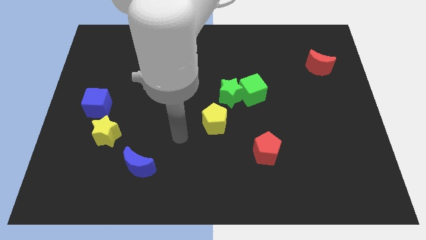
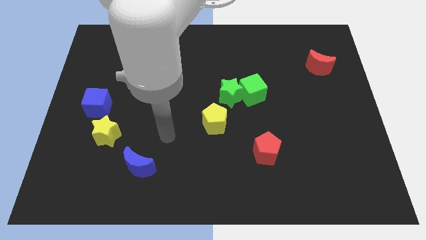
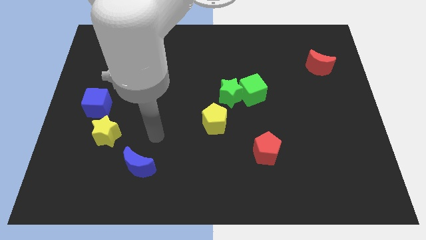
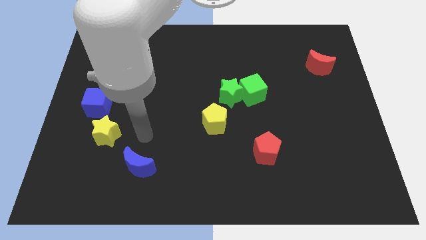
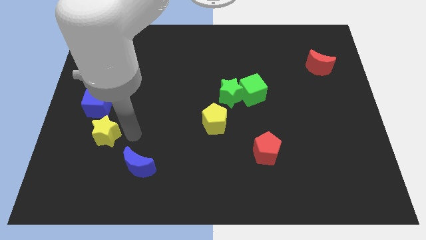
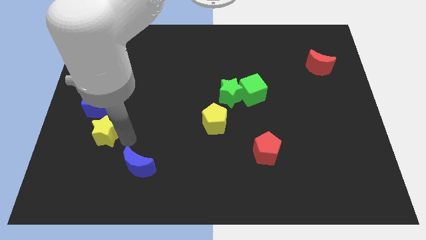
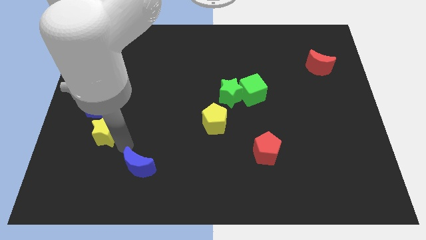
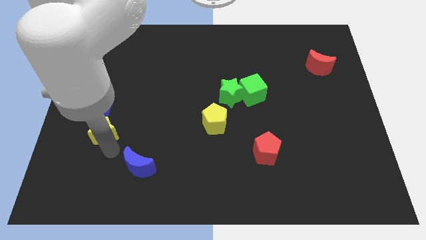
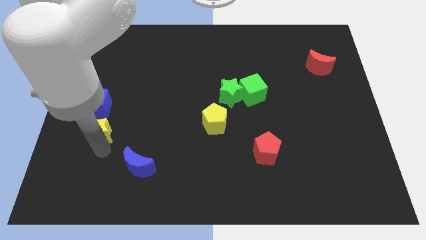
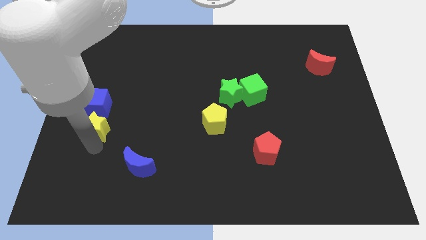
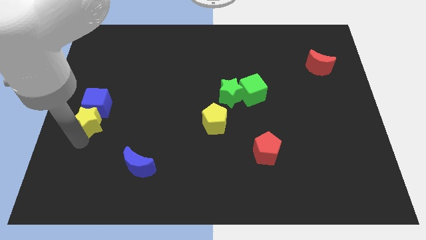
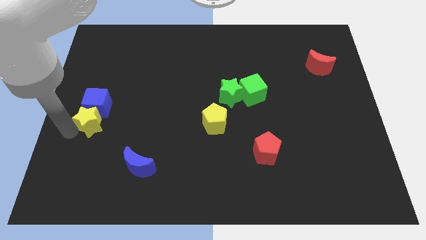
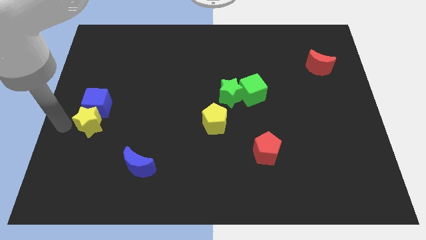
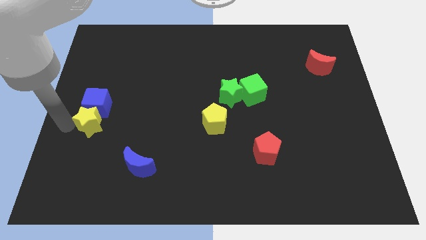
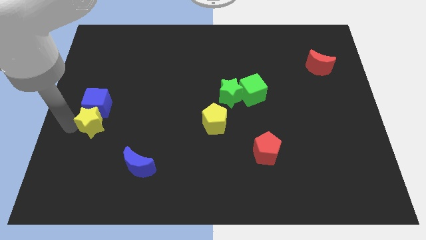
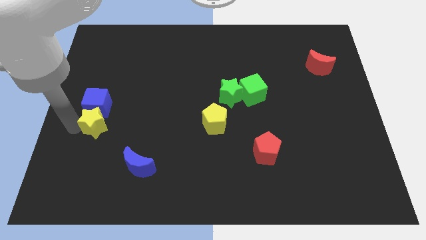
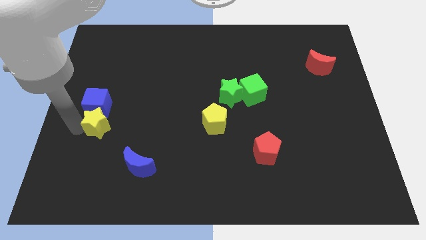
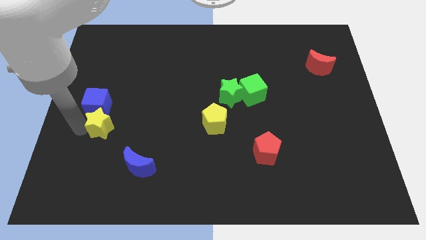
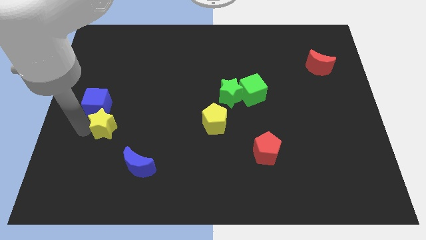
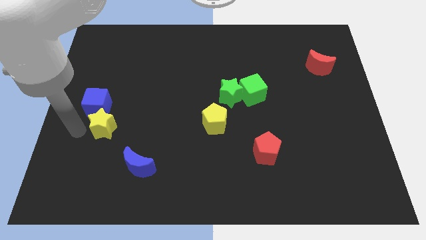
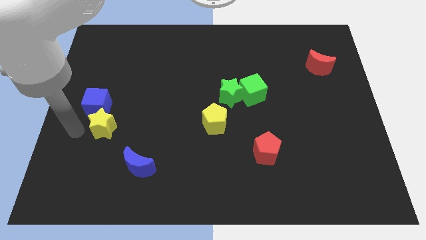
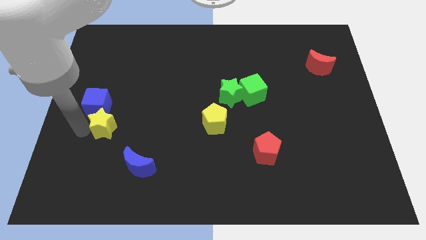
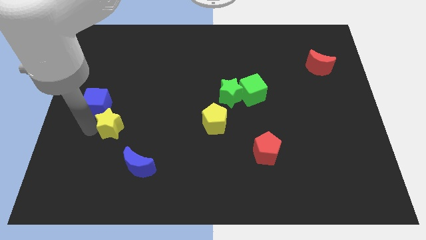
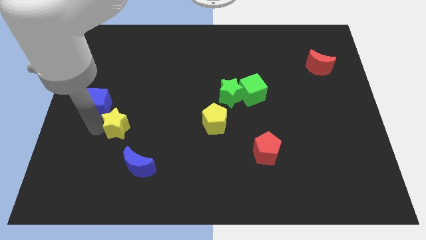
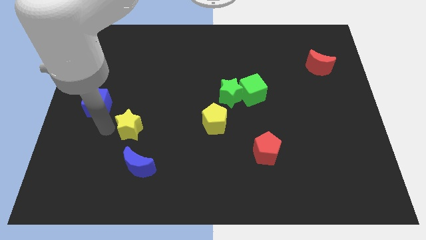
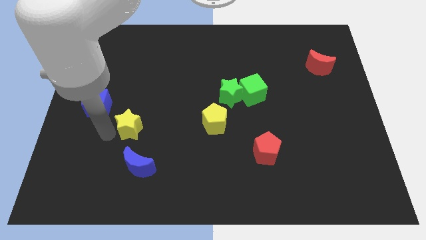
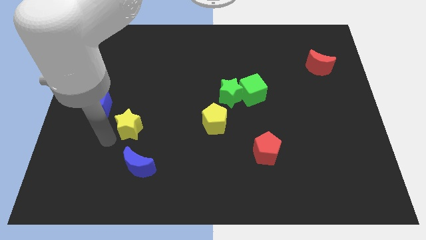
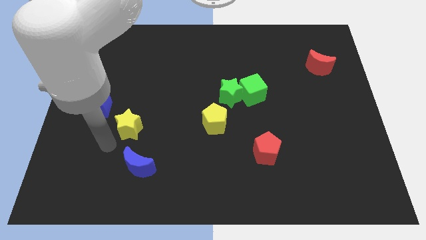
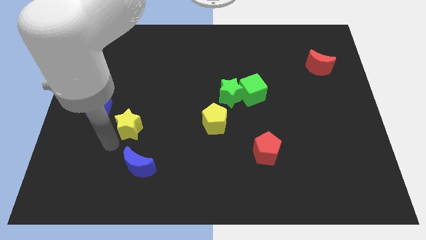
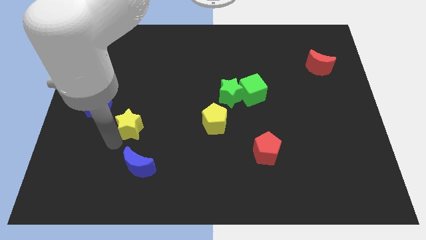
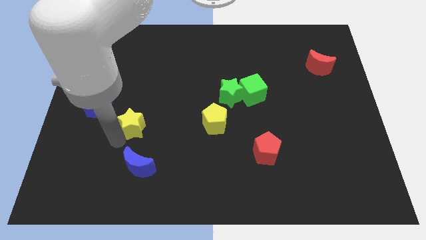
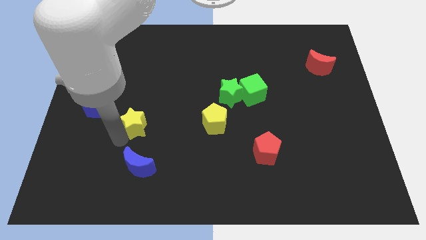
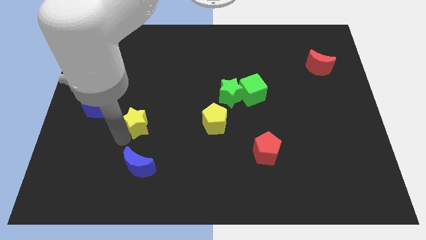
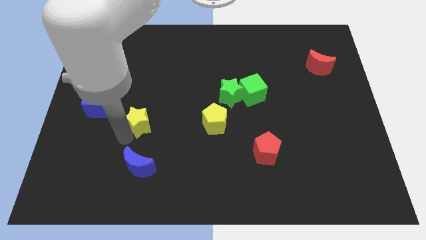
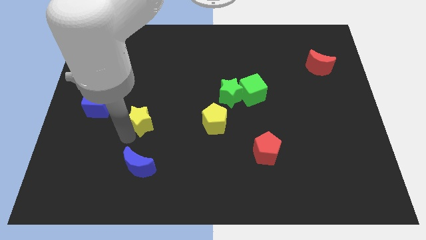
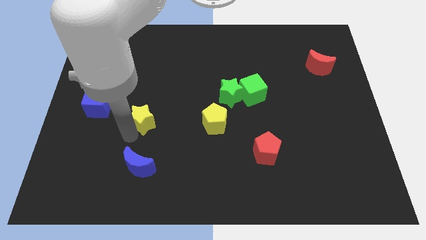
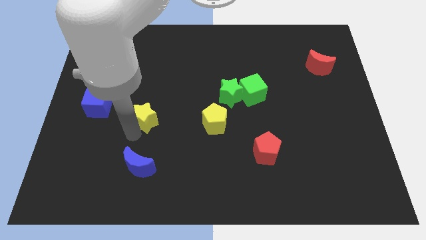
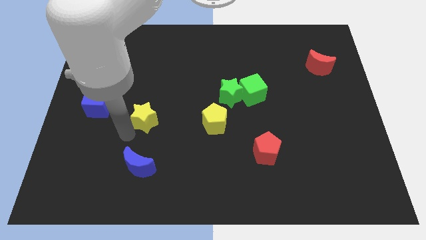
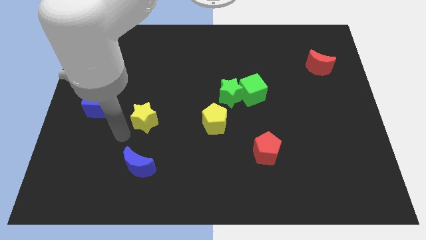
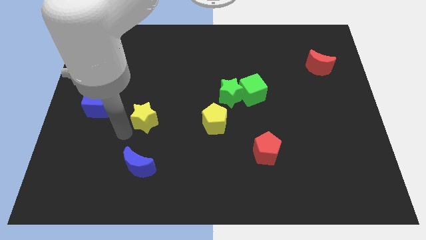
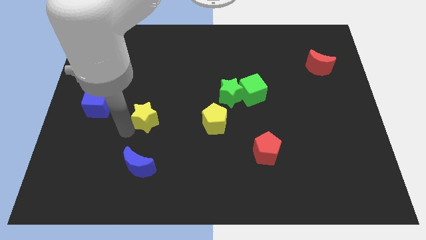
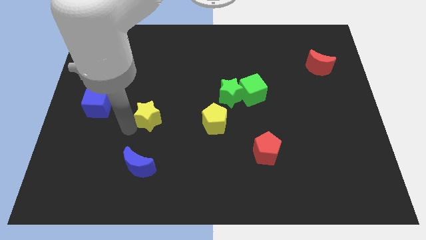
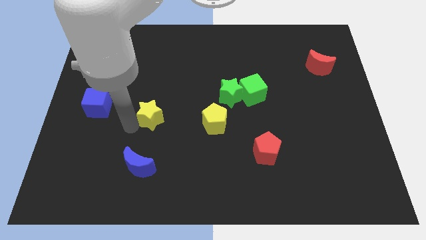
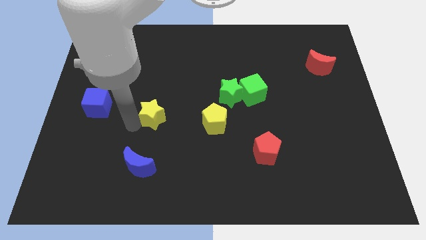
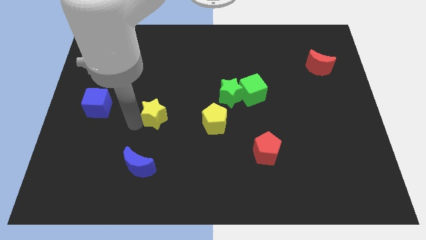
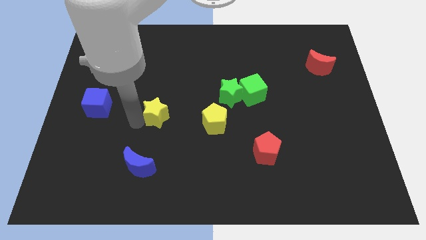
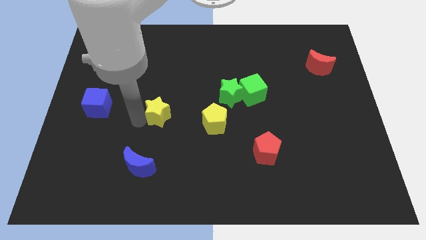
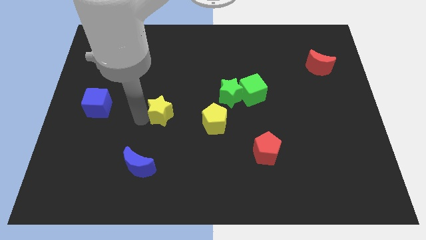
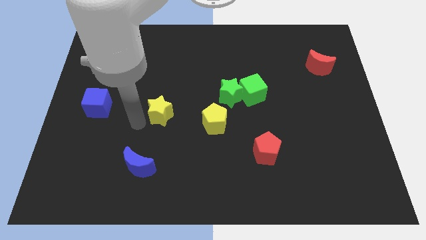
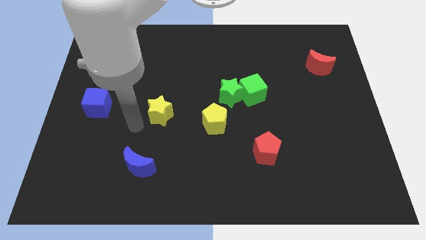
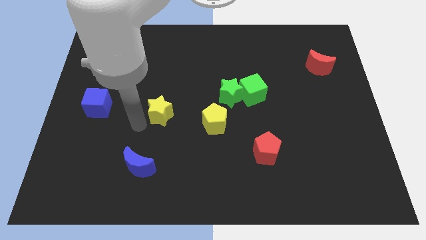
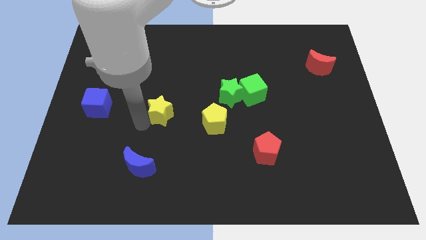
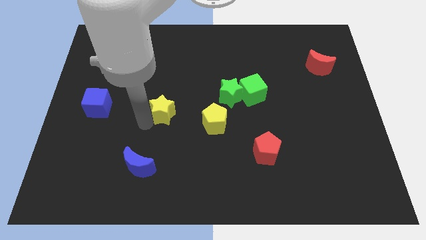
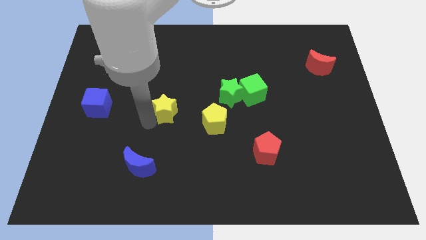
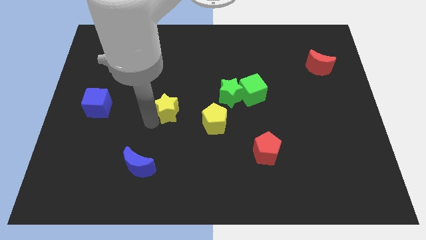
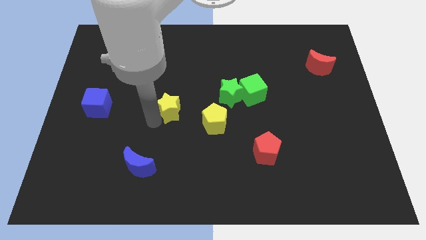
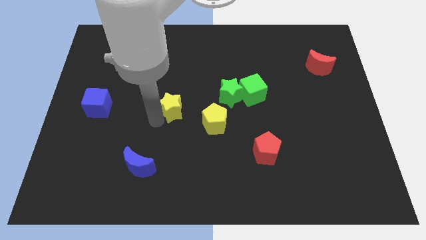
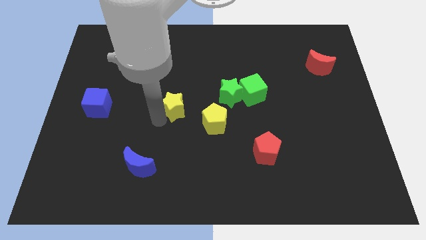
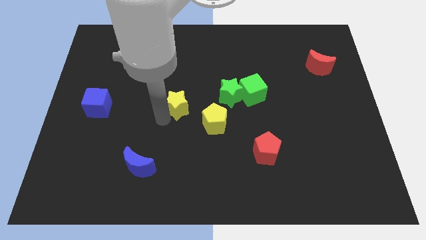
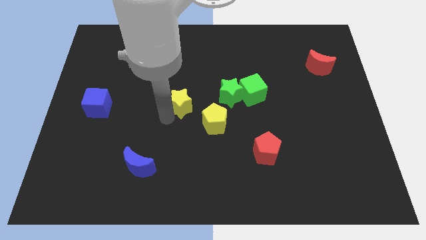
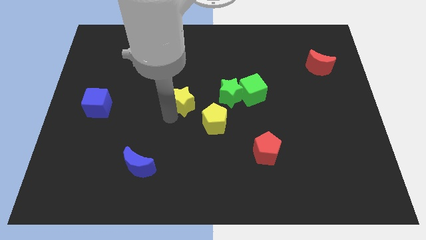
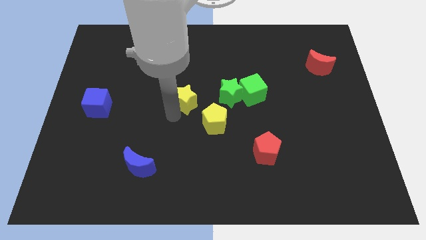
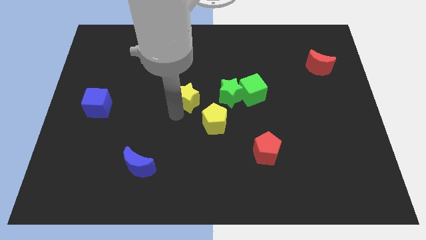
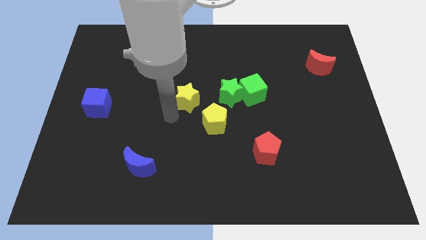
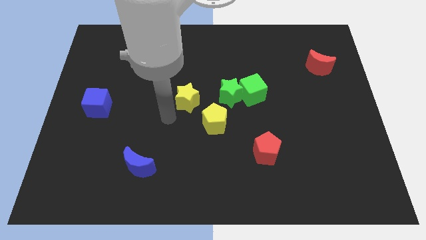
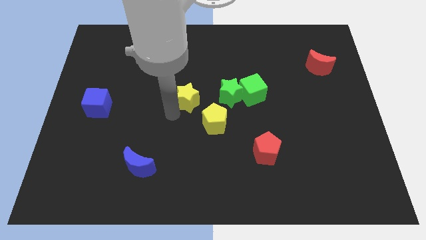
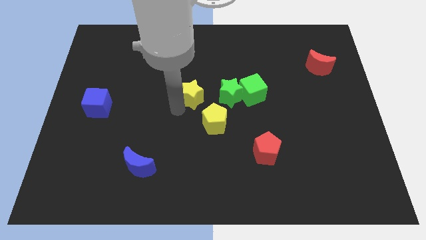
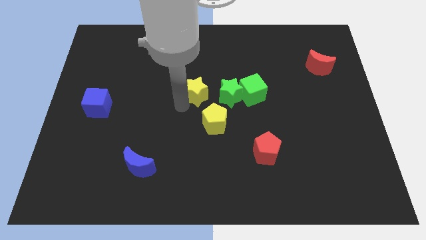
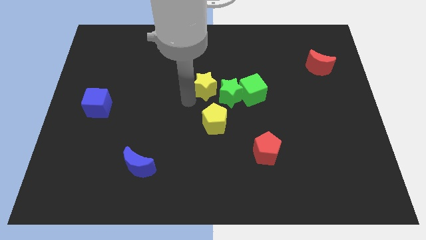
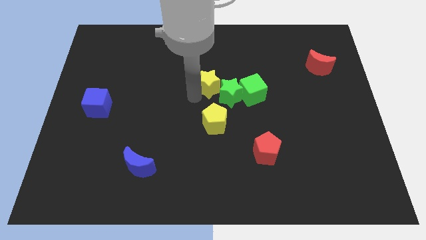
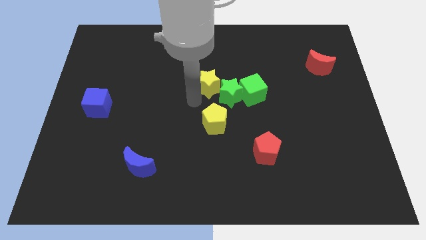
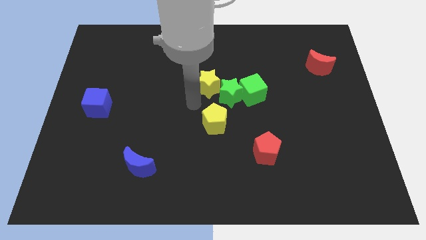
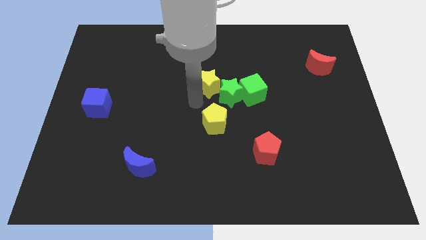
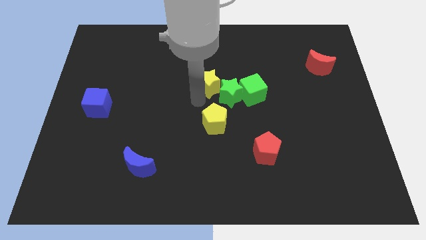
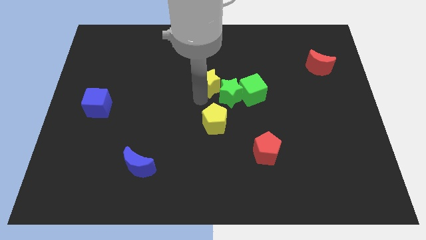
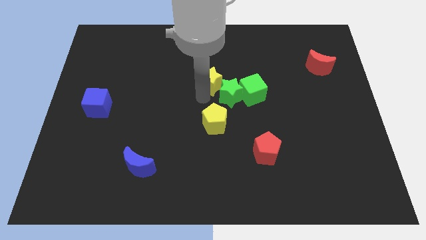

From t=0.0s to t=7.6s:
slide the yellow star to the top side of the green star
